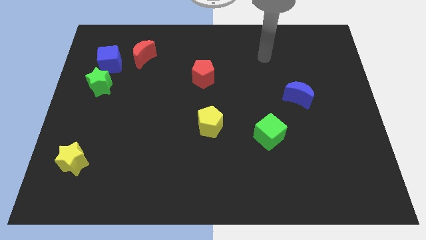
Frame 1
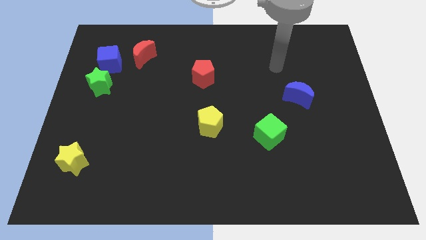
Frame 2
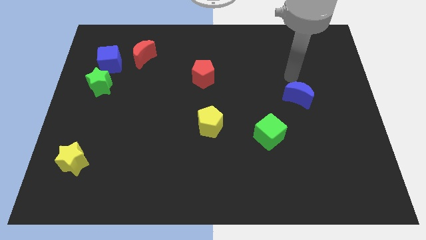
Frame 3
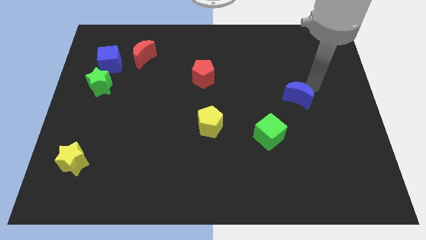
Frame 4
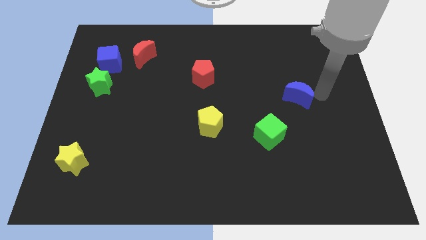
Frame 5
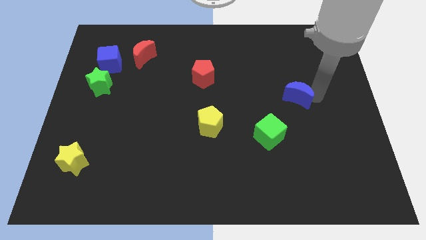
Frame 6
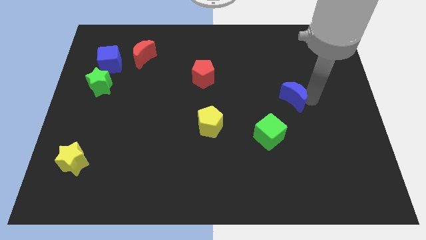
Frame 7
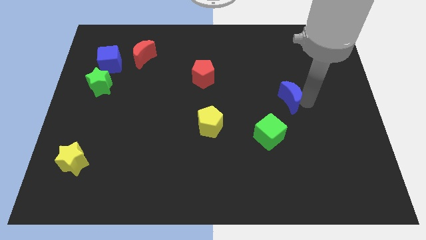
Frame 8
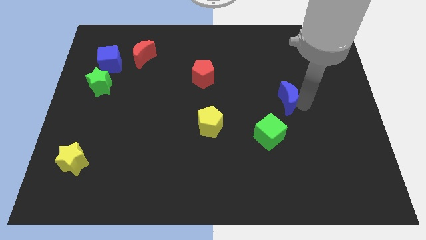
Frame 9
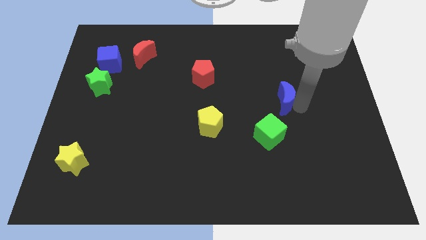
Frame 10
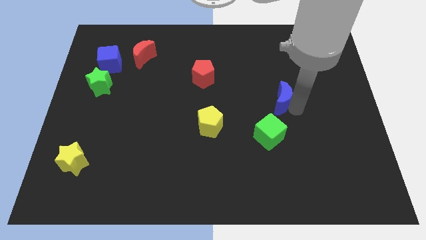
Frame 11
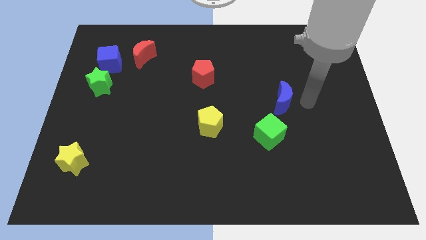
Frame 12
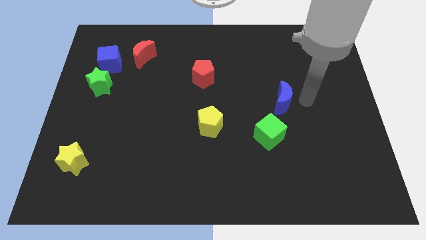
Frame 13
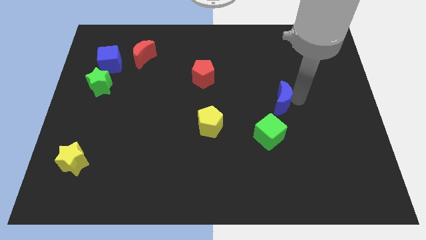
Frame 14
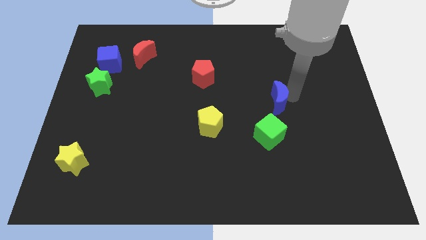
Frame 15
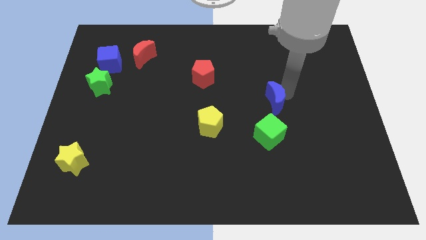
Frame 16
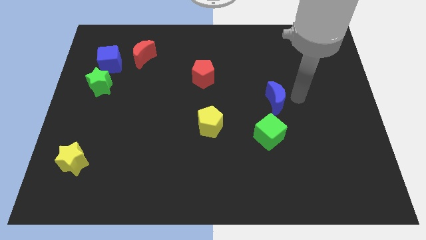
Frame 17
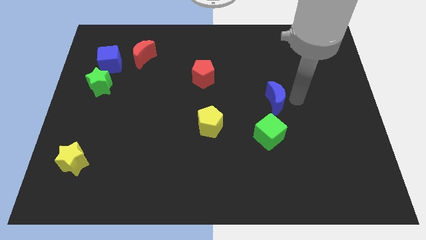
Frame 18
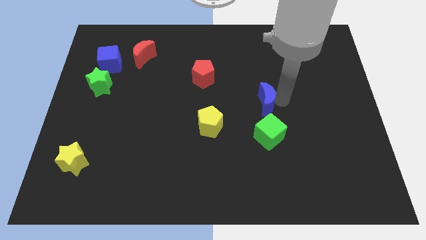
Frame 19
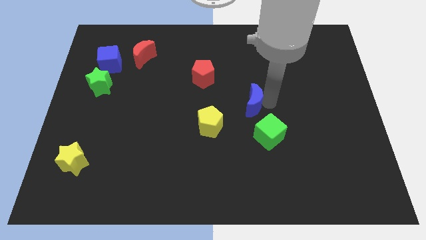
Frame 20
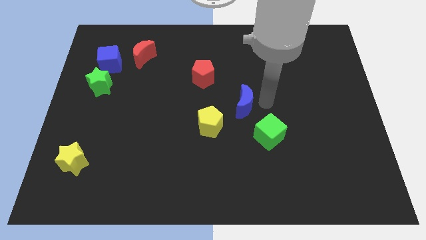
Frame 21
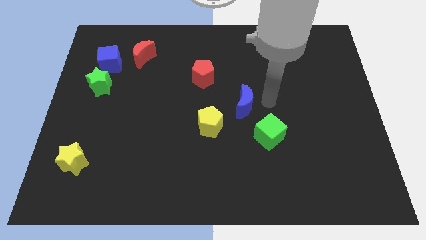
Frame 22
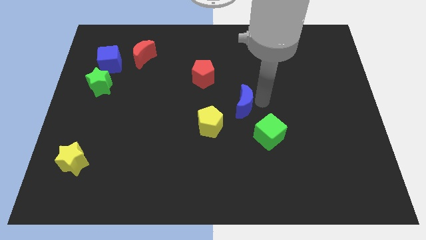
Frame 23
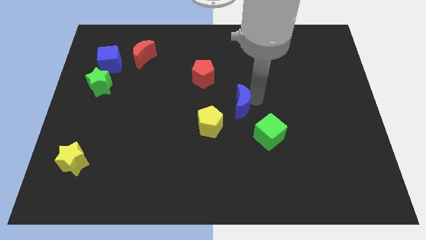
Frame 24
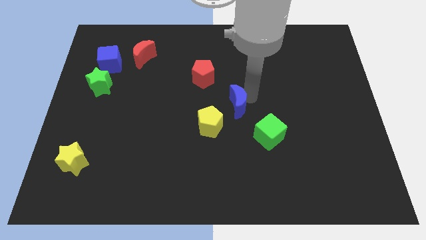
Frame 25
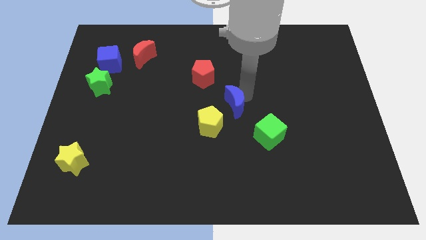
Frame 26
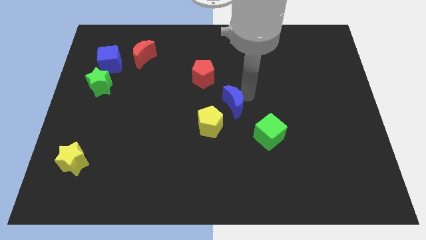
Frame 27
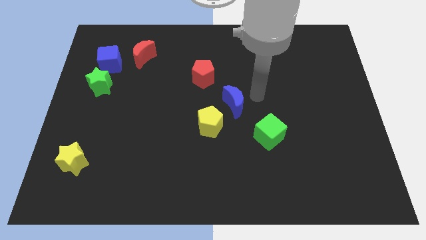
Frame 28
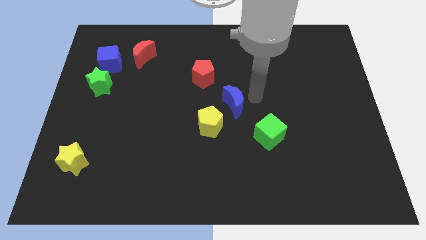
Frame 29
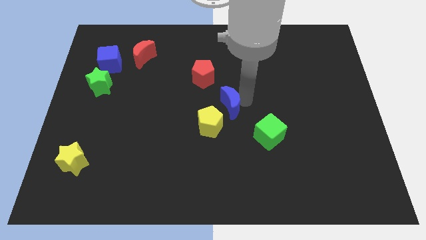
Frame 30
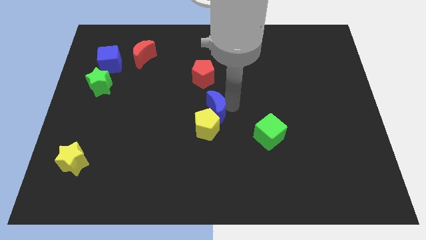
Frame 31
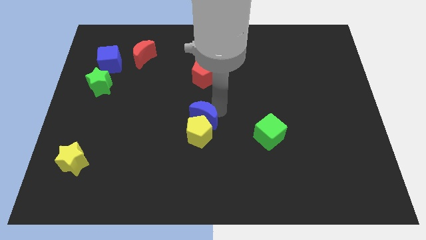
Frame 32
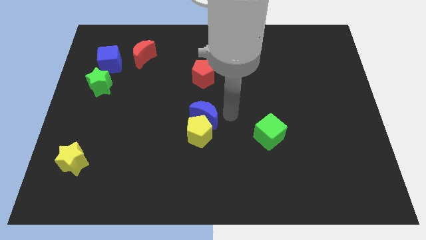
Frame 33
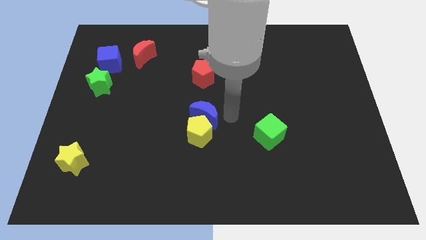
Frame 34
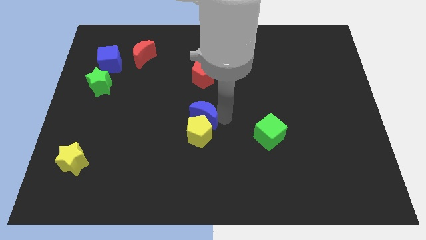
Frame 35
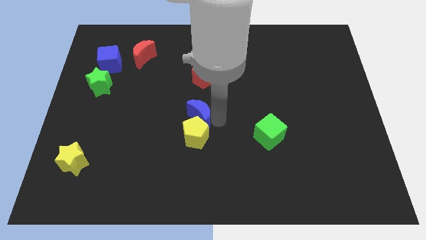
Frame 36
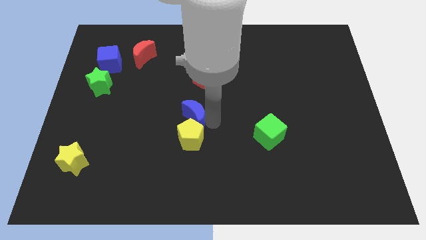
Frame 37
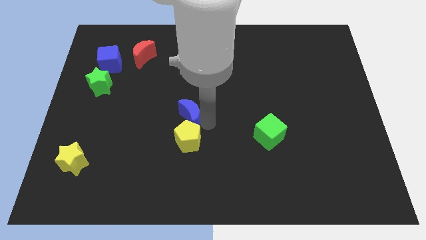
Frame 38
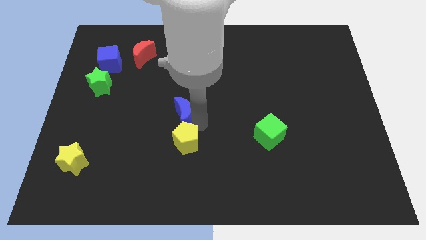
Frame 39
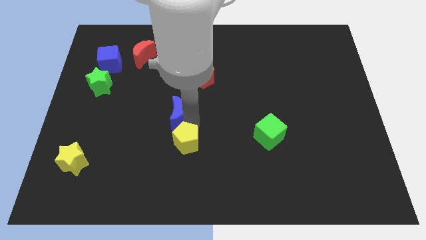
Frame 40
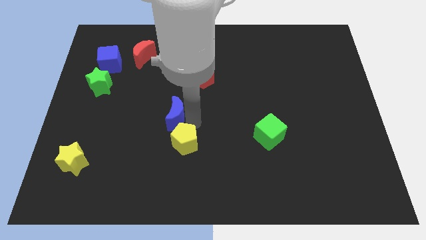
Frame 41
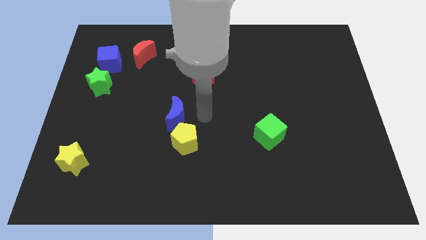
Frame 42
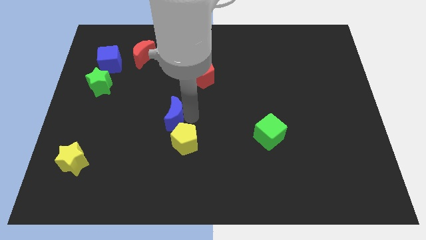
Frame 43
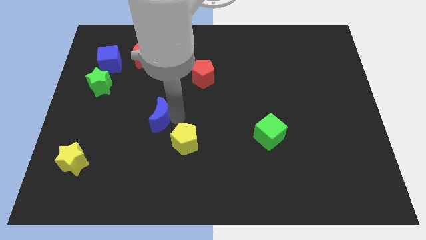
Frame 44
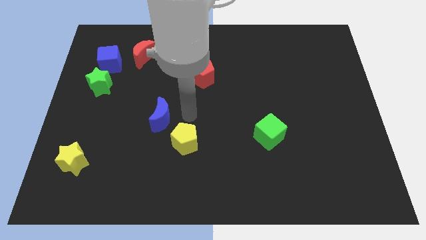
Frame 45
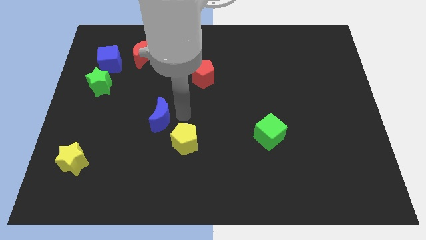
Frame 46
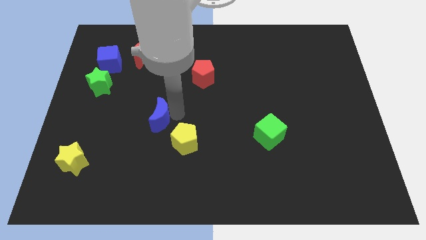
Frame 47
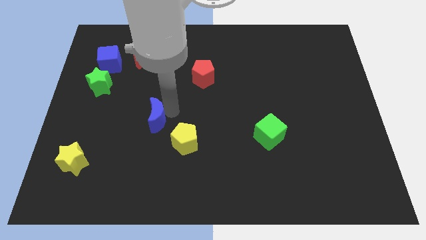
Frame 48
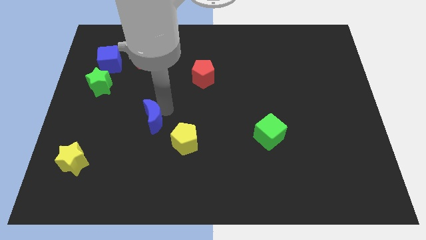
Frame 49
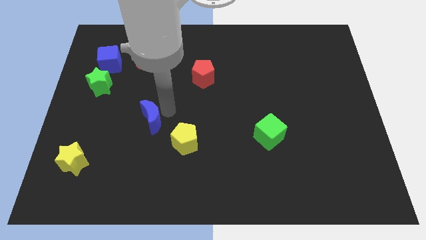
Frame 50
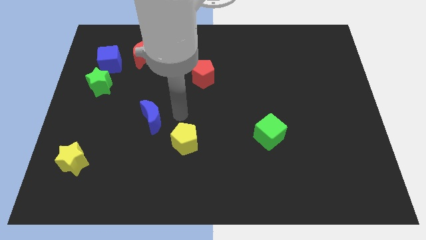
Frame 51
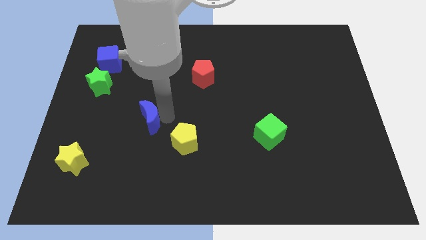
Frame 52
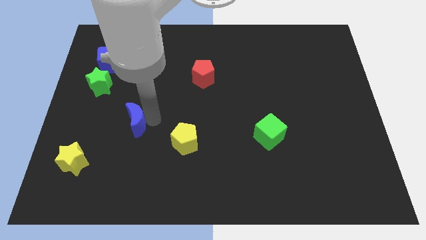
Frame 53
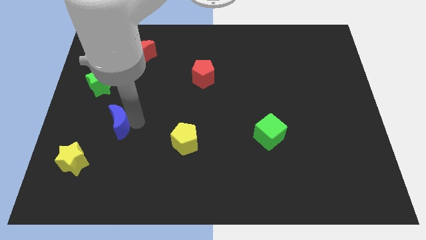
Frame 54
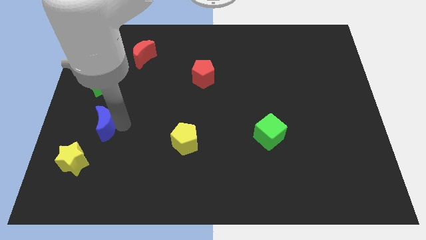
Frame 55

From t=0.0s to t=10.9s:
move the blue moon above the yellow star
